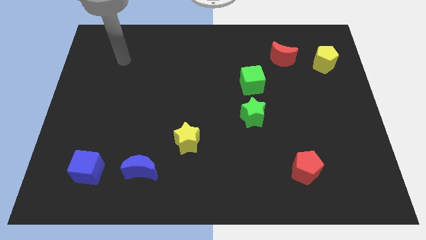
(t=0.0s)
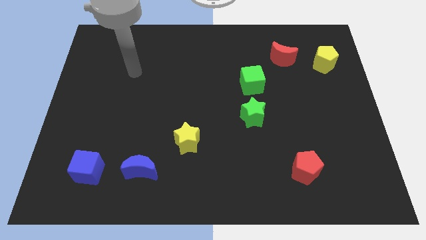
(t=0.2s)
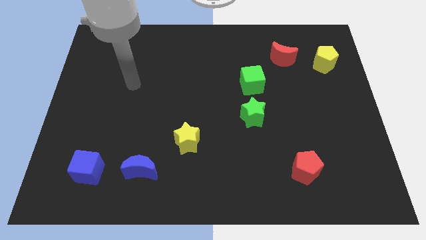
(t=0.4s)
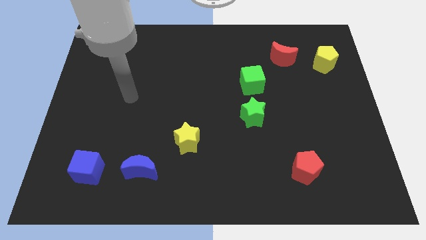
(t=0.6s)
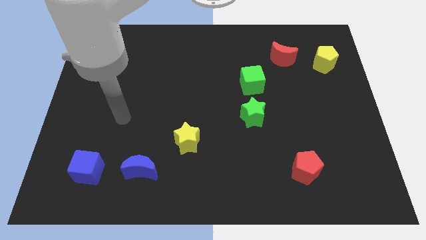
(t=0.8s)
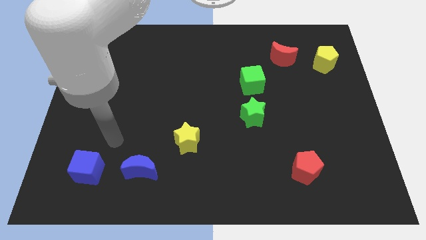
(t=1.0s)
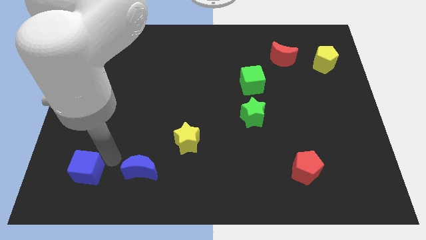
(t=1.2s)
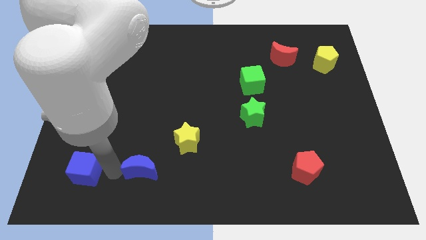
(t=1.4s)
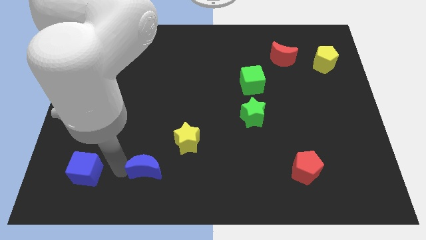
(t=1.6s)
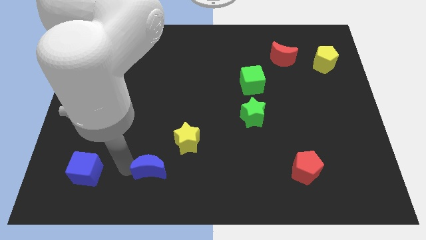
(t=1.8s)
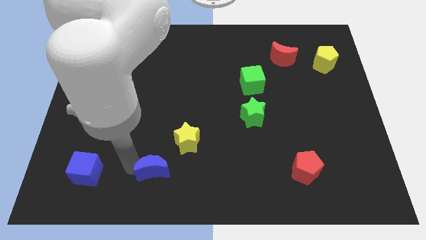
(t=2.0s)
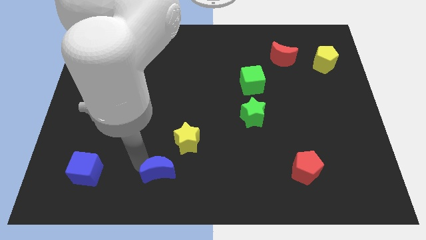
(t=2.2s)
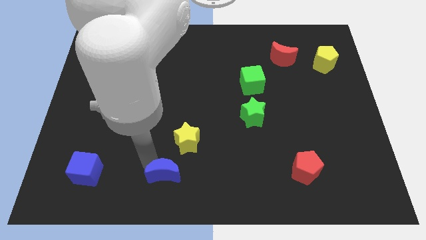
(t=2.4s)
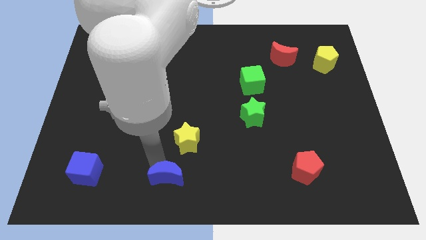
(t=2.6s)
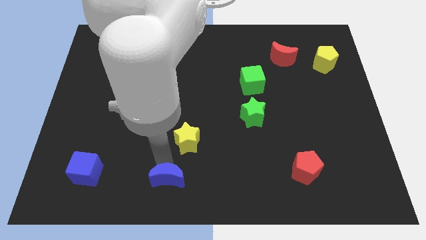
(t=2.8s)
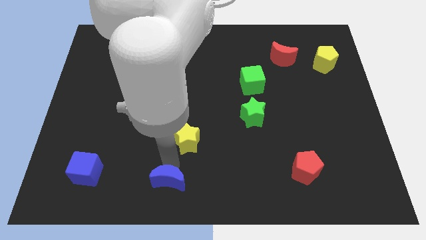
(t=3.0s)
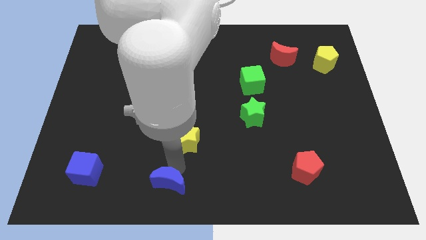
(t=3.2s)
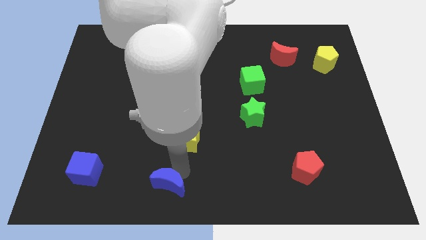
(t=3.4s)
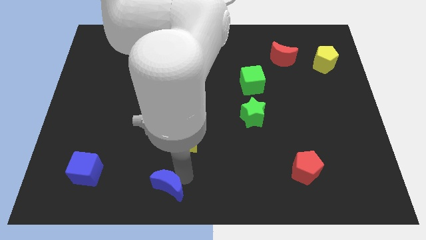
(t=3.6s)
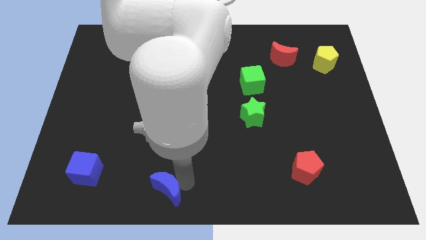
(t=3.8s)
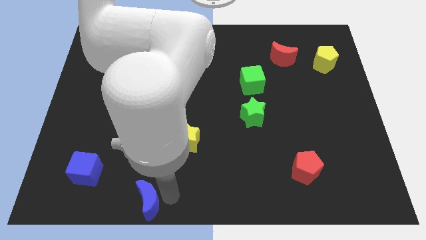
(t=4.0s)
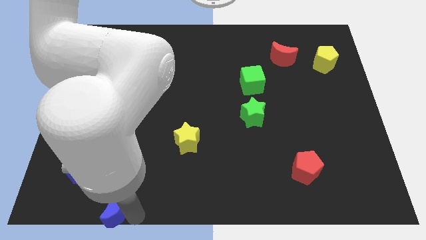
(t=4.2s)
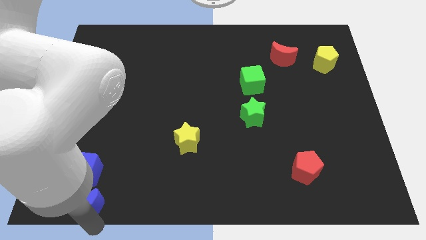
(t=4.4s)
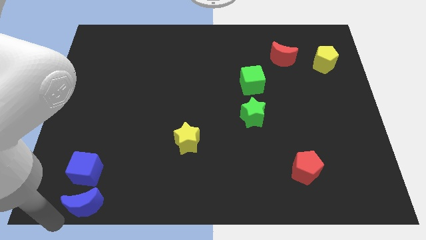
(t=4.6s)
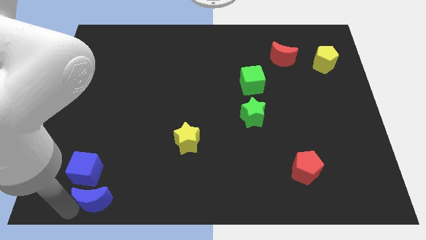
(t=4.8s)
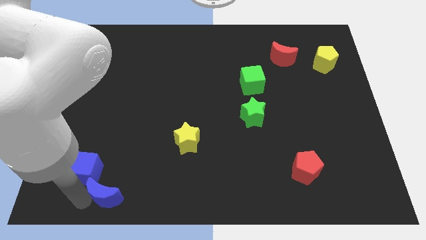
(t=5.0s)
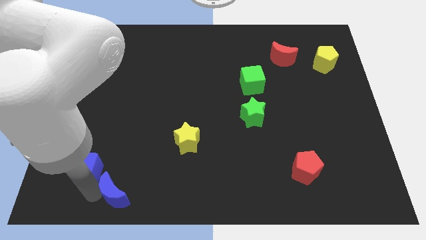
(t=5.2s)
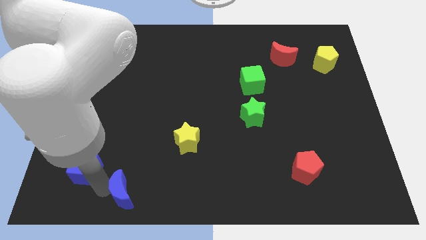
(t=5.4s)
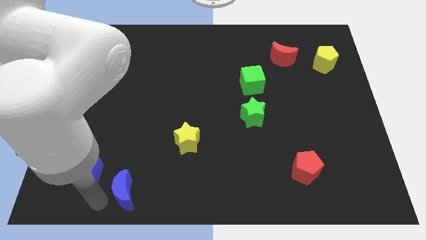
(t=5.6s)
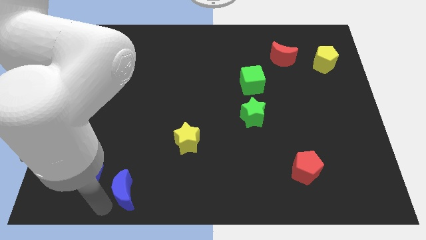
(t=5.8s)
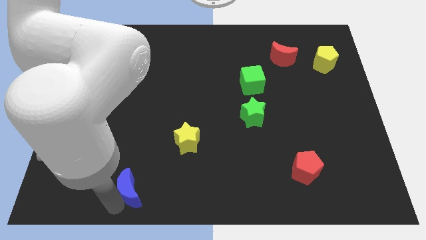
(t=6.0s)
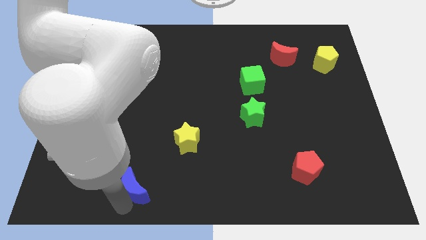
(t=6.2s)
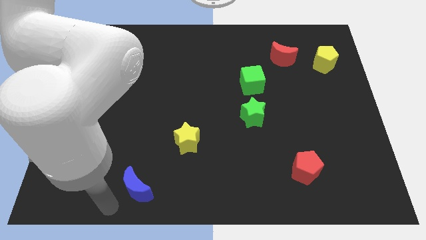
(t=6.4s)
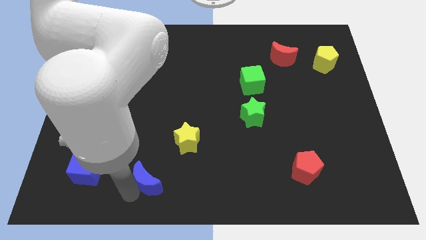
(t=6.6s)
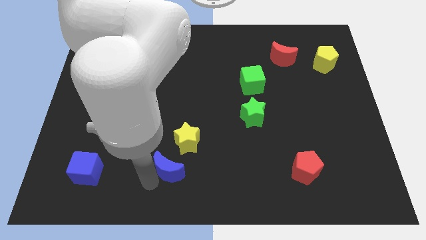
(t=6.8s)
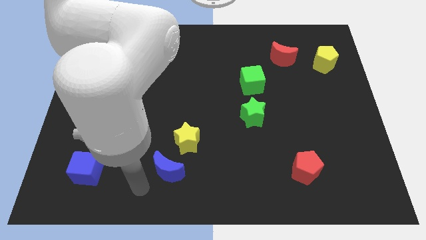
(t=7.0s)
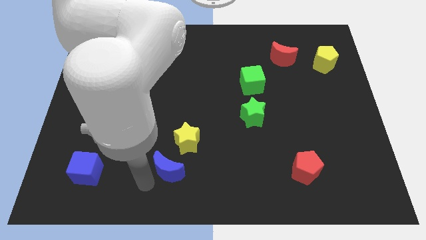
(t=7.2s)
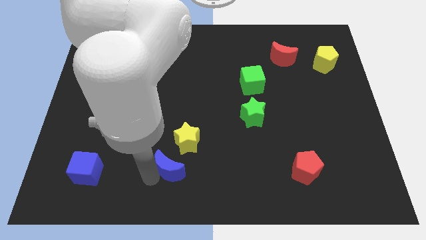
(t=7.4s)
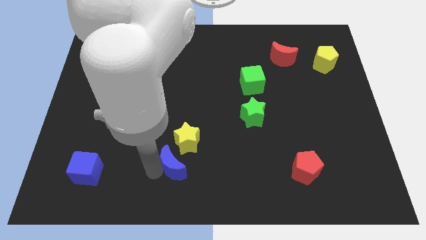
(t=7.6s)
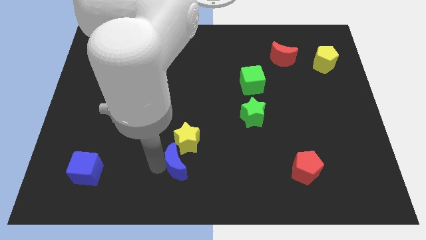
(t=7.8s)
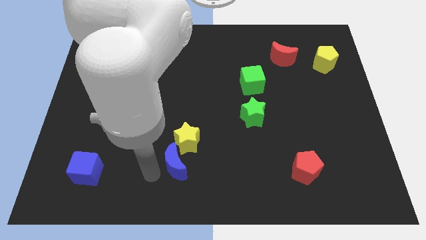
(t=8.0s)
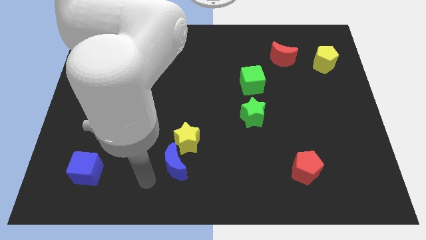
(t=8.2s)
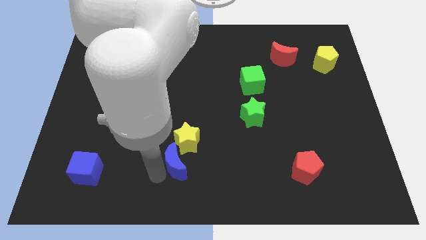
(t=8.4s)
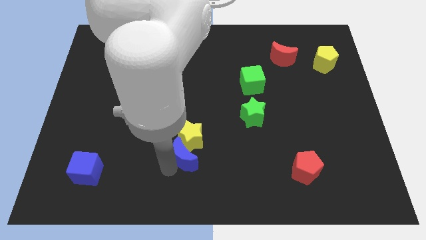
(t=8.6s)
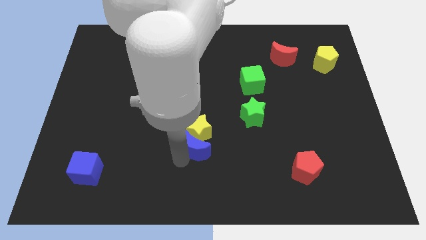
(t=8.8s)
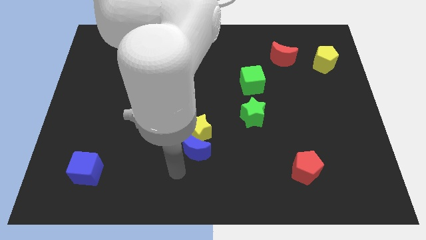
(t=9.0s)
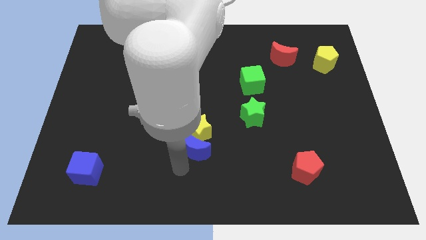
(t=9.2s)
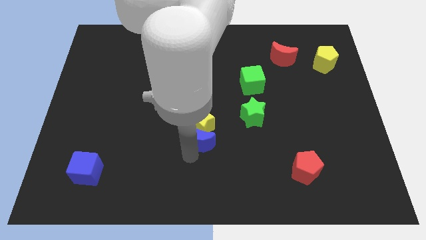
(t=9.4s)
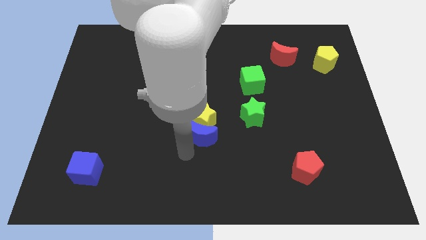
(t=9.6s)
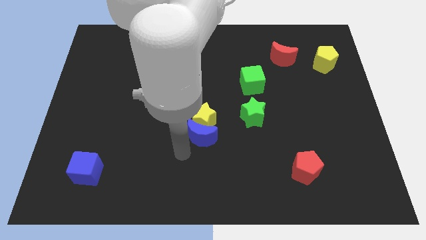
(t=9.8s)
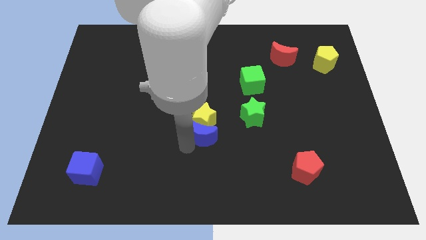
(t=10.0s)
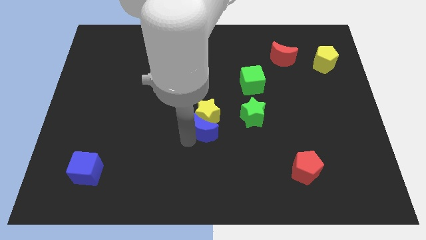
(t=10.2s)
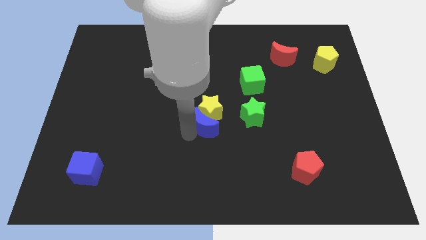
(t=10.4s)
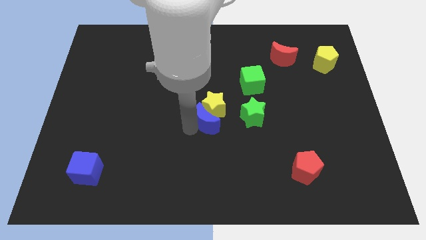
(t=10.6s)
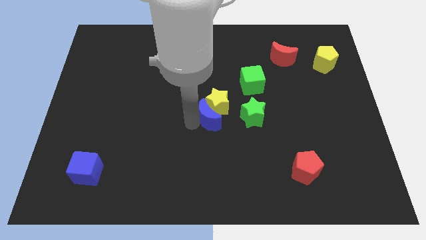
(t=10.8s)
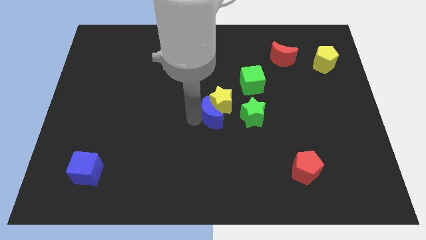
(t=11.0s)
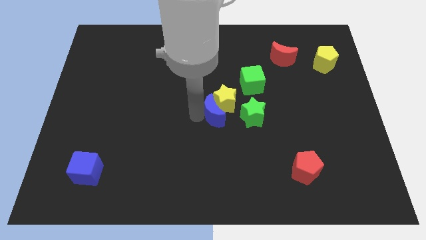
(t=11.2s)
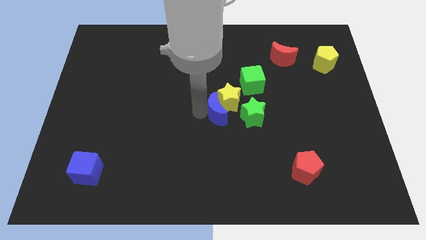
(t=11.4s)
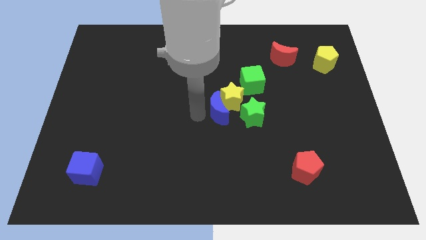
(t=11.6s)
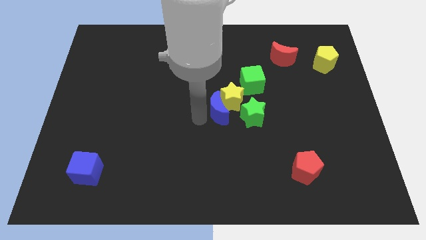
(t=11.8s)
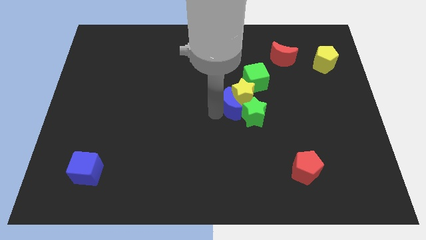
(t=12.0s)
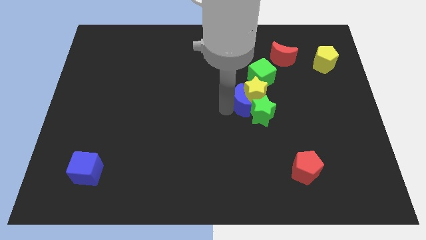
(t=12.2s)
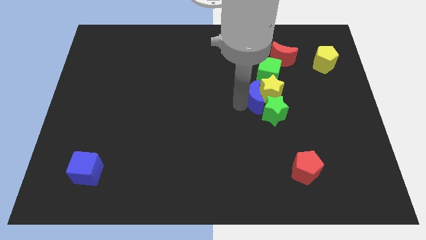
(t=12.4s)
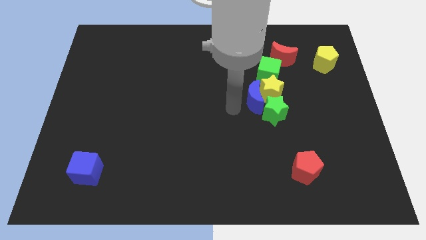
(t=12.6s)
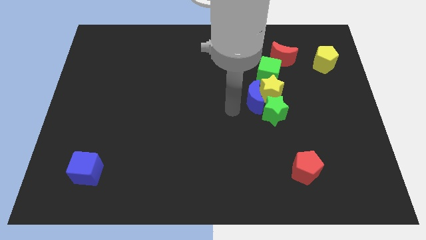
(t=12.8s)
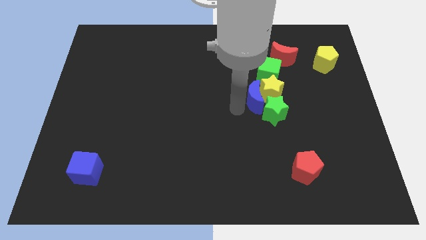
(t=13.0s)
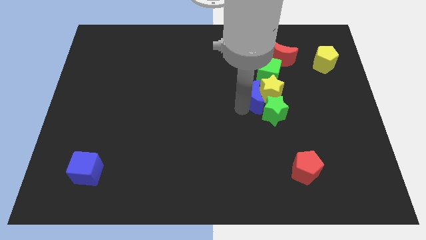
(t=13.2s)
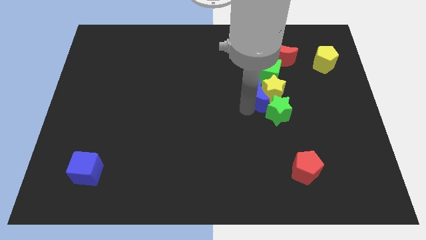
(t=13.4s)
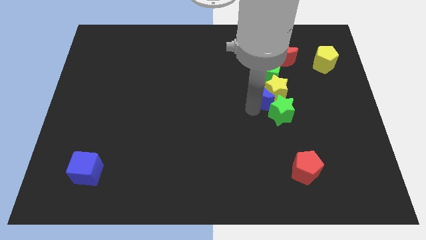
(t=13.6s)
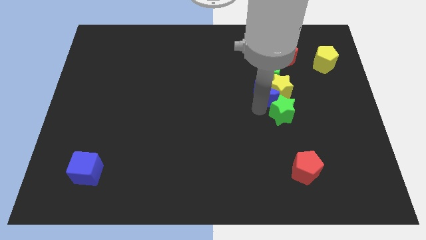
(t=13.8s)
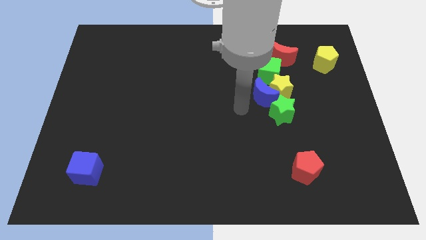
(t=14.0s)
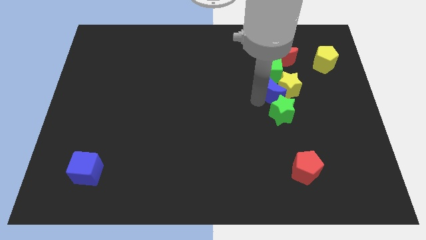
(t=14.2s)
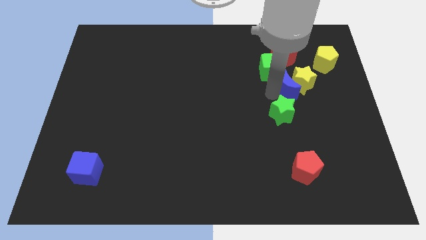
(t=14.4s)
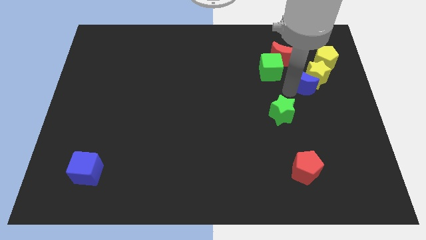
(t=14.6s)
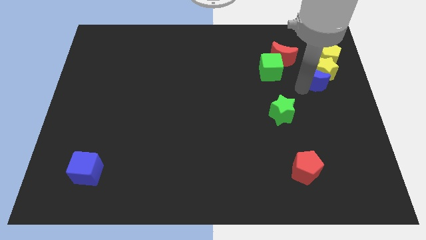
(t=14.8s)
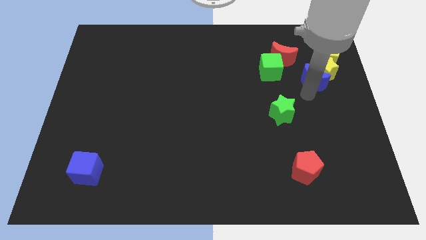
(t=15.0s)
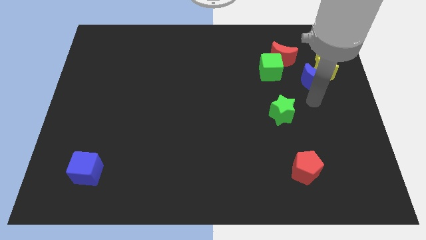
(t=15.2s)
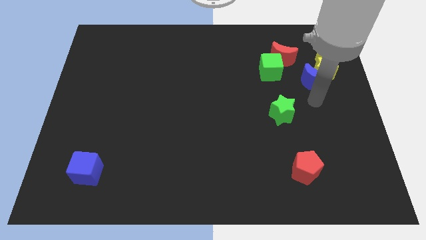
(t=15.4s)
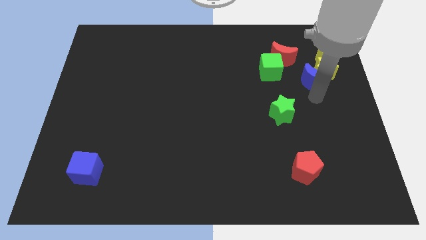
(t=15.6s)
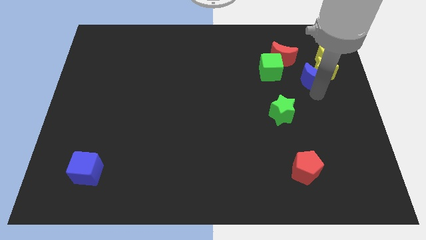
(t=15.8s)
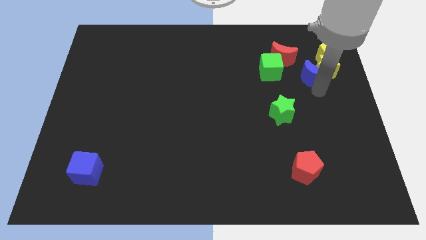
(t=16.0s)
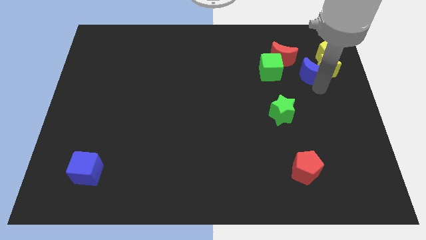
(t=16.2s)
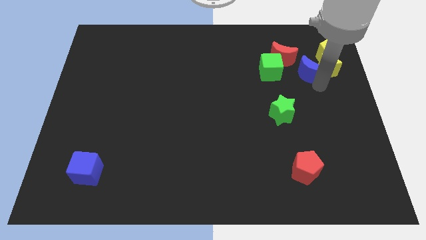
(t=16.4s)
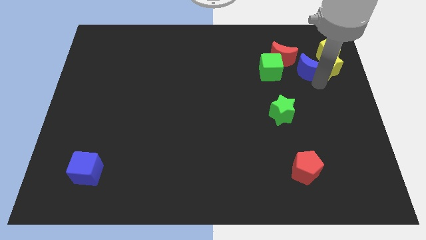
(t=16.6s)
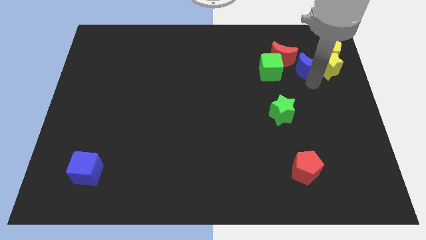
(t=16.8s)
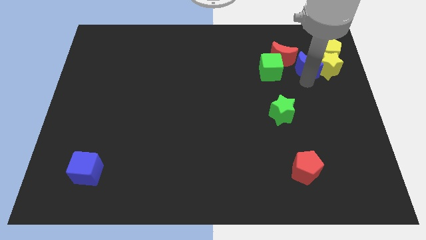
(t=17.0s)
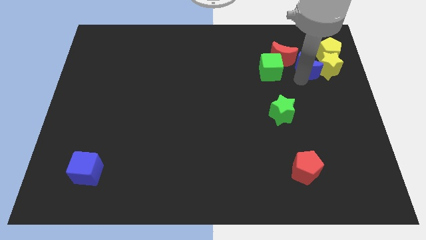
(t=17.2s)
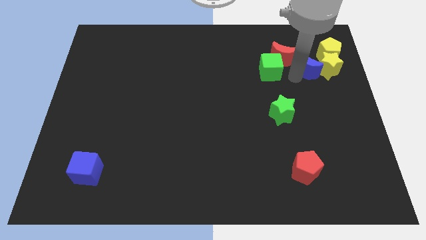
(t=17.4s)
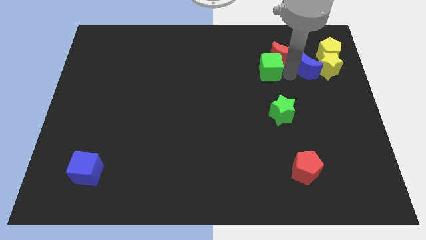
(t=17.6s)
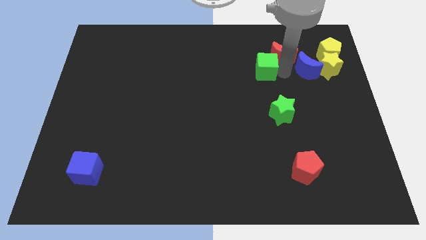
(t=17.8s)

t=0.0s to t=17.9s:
push the blue moon right of the green cube
